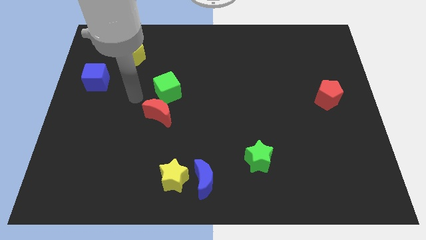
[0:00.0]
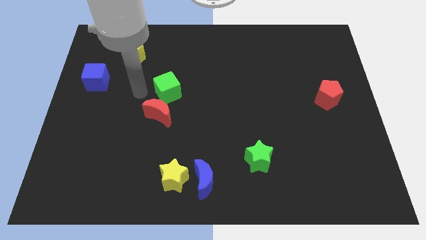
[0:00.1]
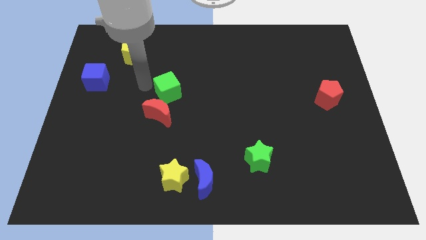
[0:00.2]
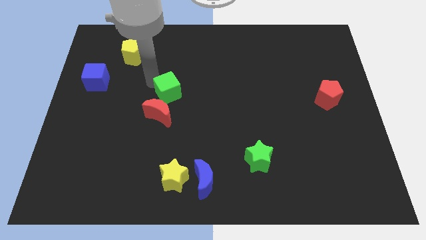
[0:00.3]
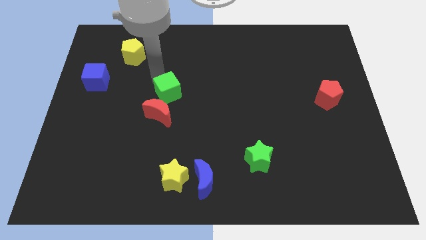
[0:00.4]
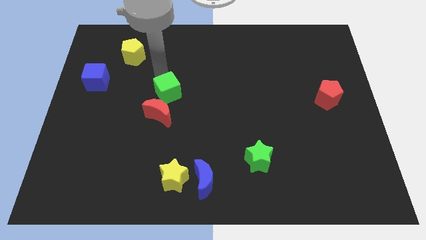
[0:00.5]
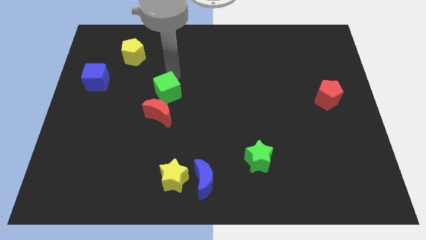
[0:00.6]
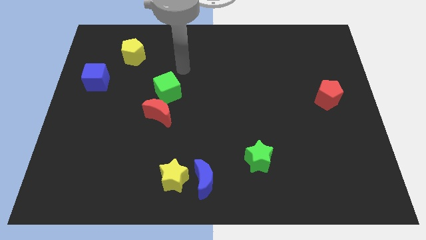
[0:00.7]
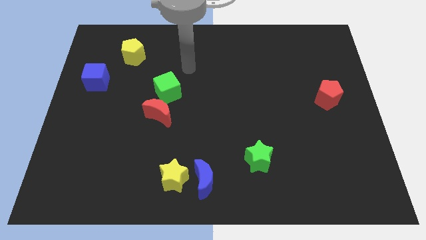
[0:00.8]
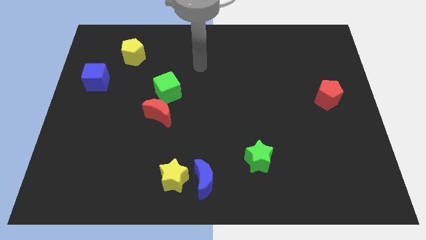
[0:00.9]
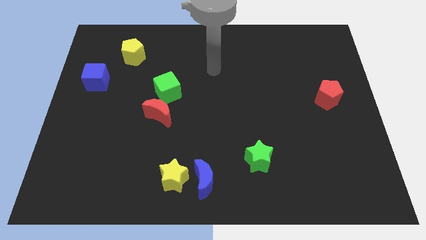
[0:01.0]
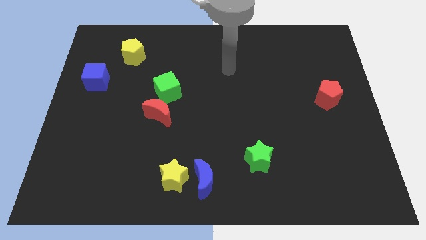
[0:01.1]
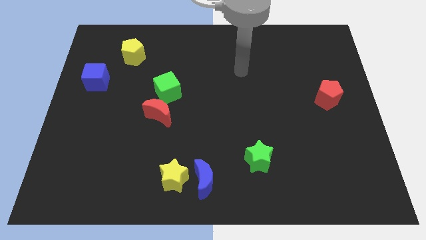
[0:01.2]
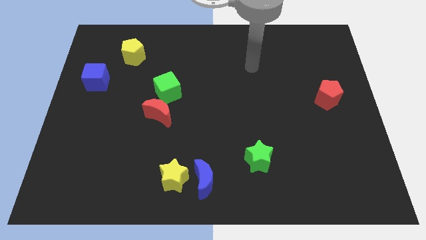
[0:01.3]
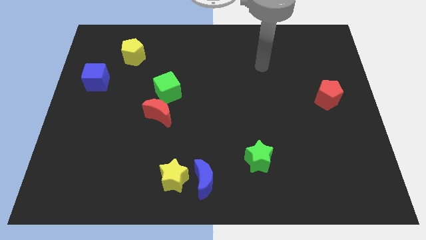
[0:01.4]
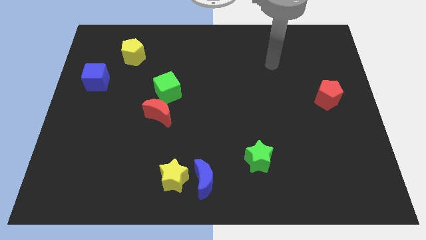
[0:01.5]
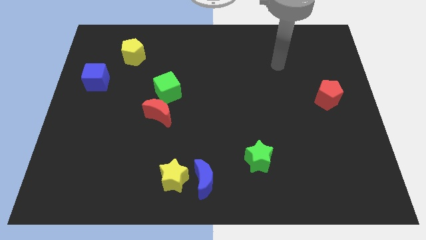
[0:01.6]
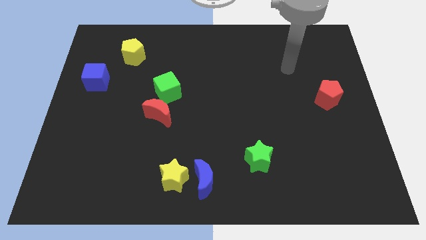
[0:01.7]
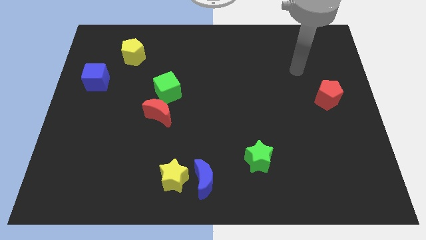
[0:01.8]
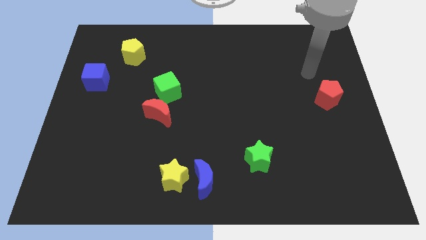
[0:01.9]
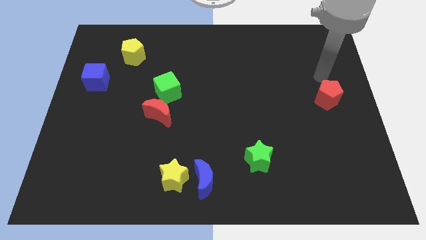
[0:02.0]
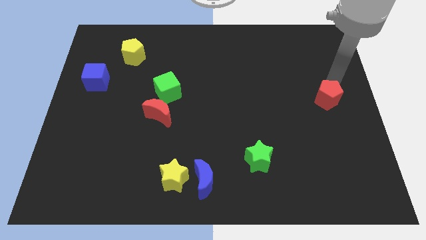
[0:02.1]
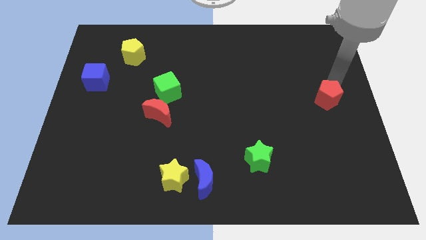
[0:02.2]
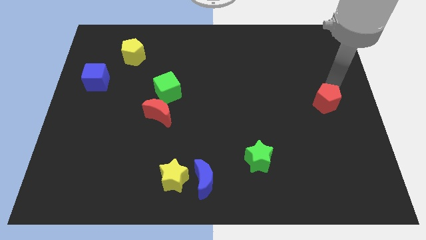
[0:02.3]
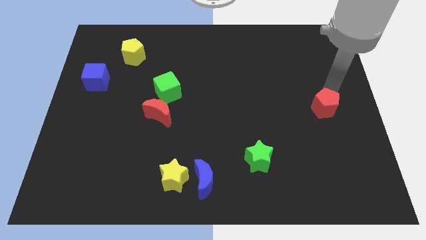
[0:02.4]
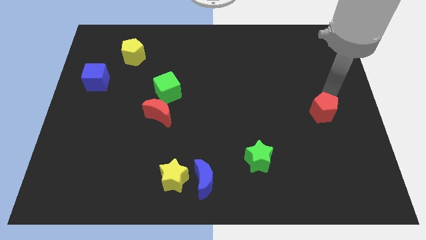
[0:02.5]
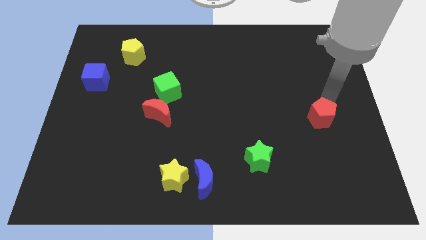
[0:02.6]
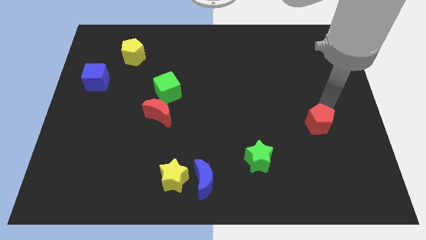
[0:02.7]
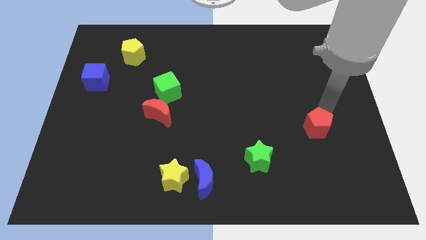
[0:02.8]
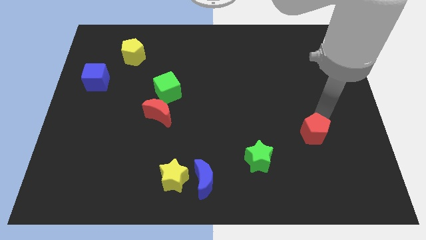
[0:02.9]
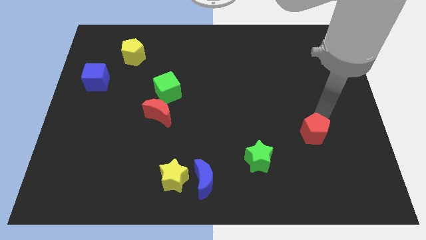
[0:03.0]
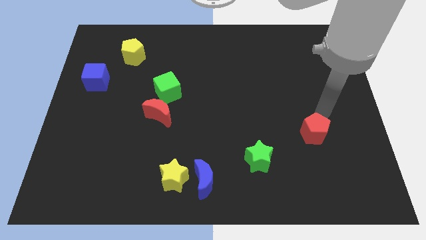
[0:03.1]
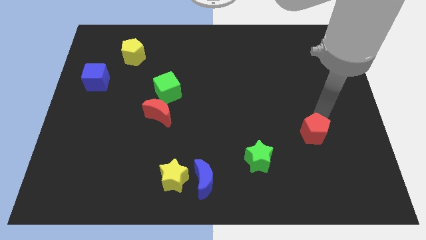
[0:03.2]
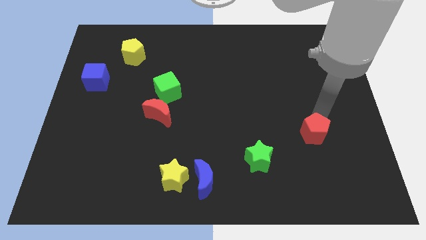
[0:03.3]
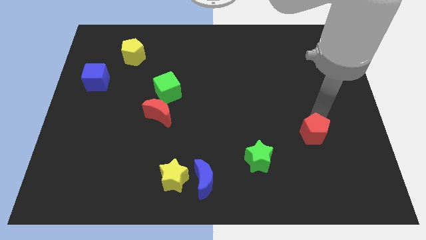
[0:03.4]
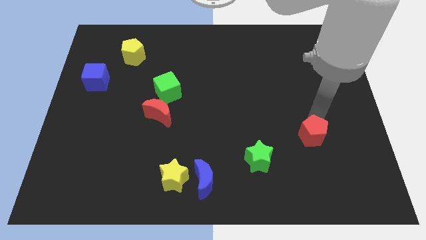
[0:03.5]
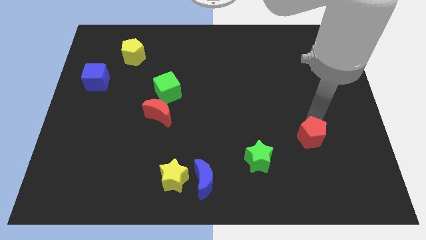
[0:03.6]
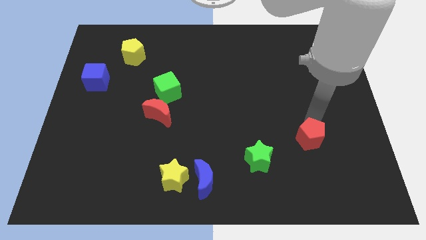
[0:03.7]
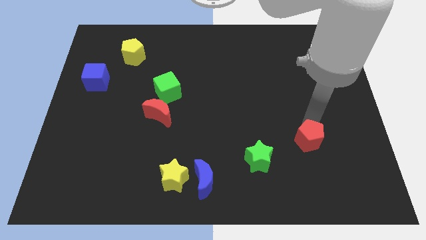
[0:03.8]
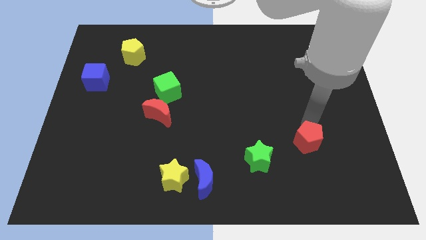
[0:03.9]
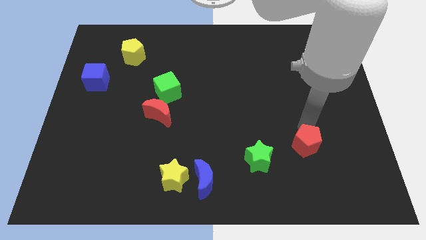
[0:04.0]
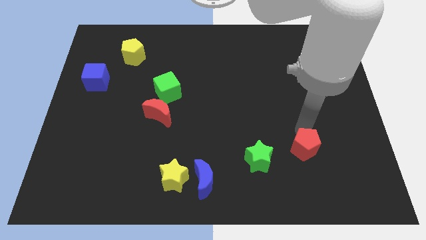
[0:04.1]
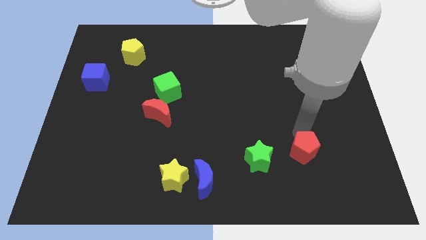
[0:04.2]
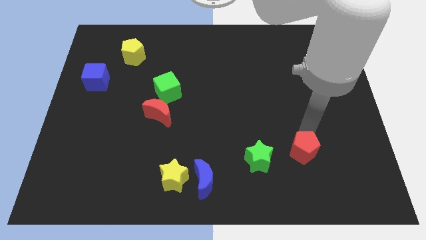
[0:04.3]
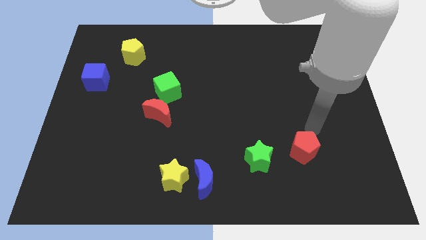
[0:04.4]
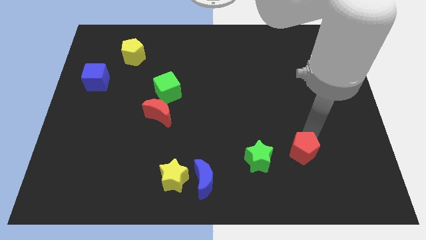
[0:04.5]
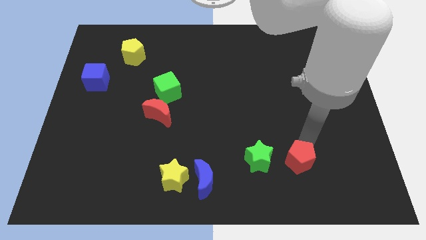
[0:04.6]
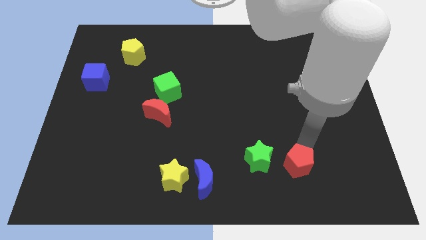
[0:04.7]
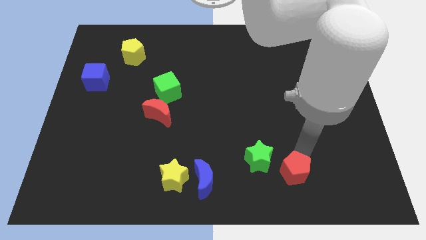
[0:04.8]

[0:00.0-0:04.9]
put the red pentagon to the bottom right of the green star

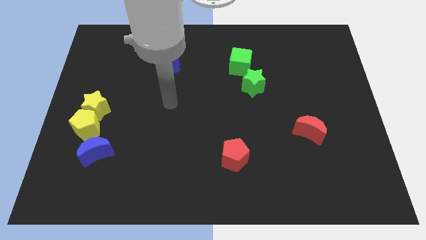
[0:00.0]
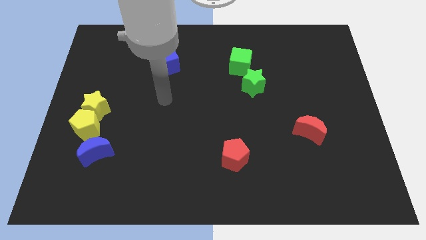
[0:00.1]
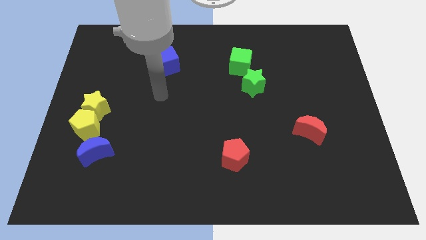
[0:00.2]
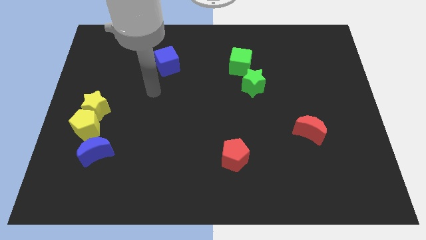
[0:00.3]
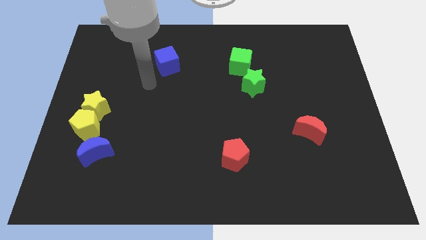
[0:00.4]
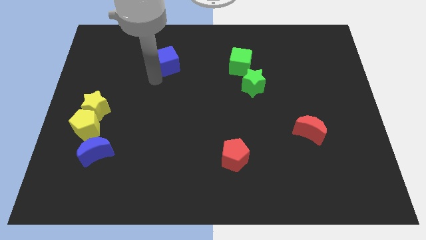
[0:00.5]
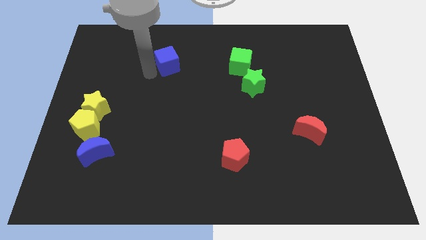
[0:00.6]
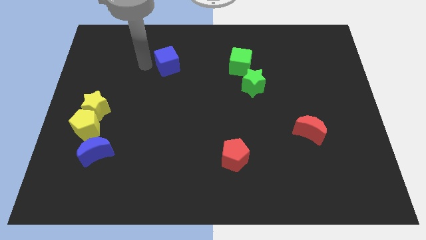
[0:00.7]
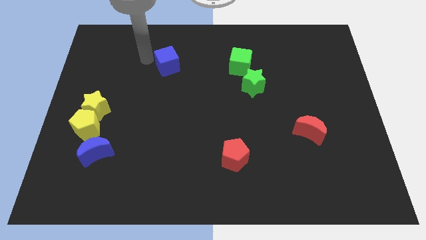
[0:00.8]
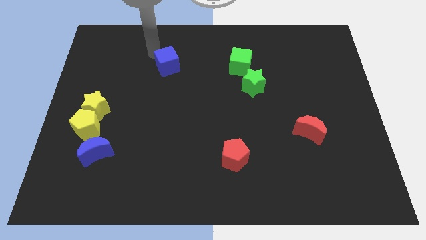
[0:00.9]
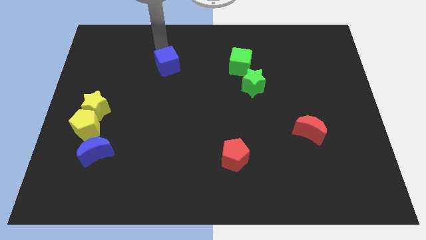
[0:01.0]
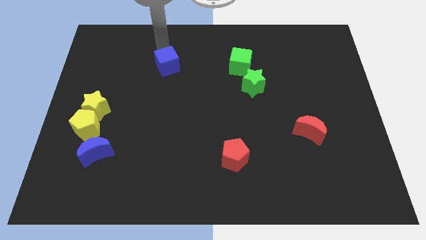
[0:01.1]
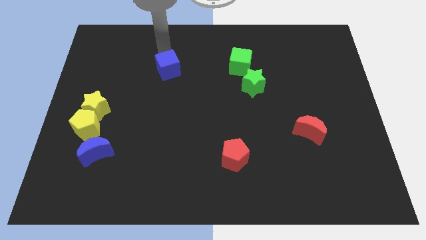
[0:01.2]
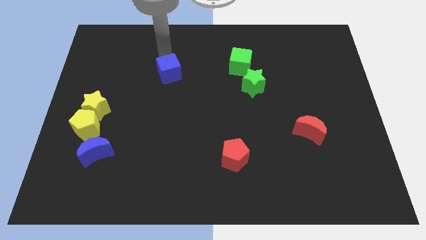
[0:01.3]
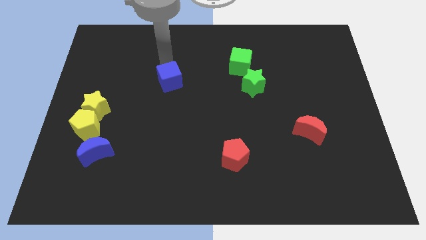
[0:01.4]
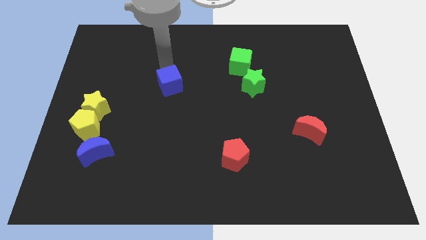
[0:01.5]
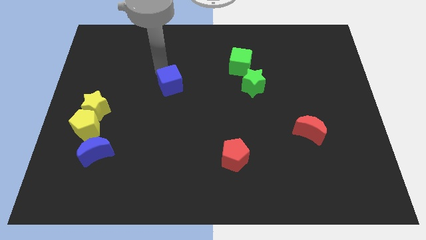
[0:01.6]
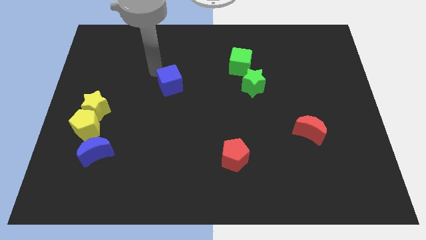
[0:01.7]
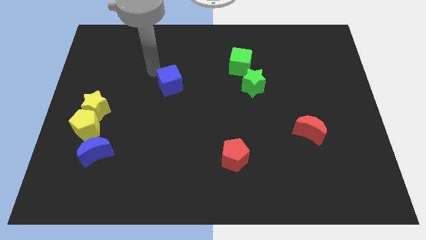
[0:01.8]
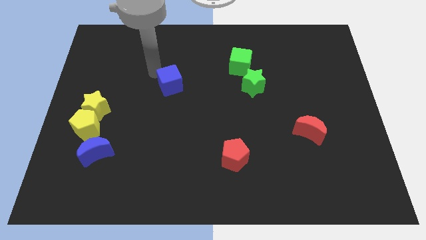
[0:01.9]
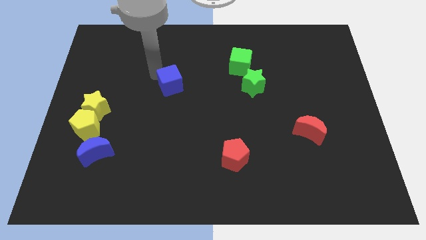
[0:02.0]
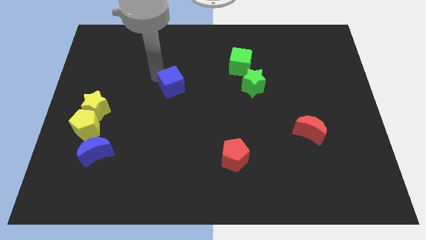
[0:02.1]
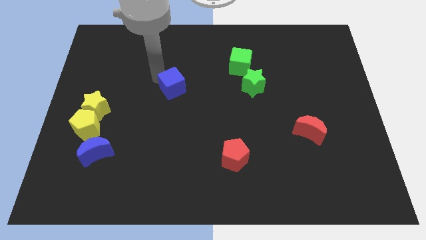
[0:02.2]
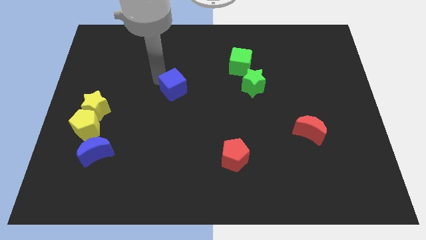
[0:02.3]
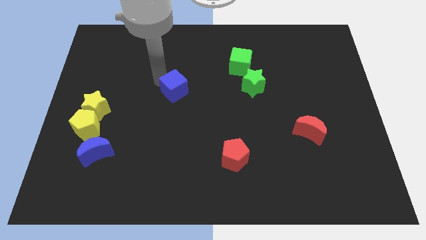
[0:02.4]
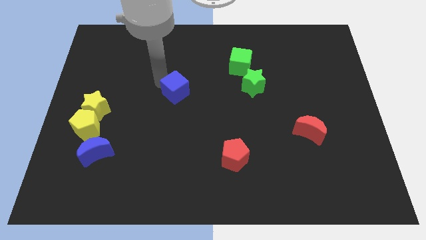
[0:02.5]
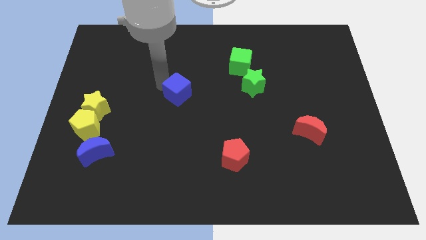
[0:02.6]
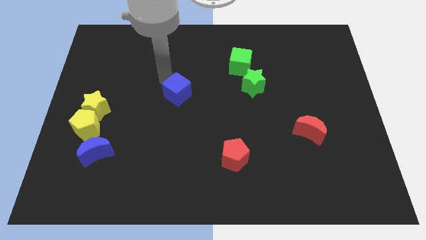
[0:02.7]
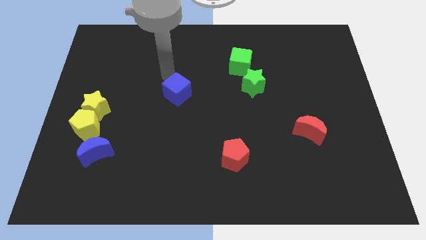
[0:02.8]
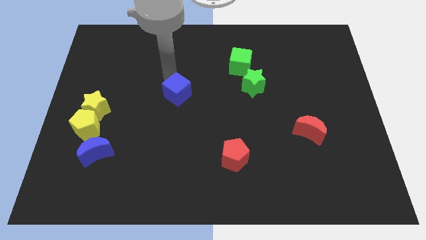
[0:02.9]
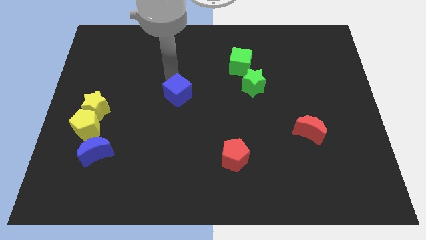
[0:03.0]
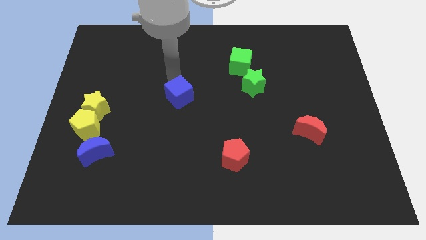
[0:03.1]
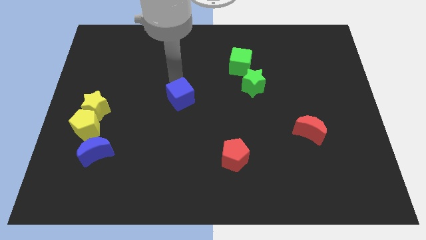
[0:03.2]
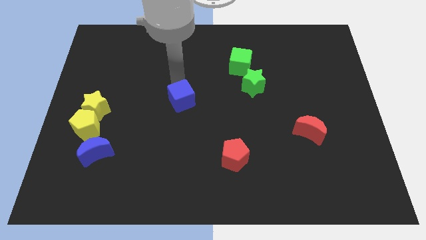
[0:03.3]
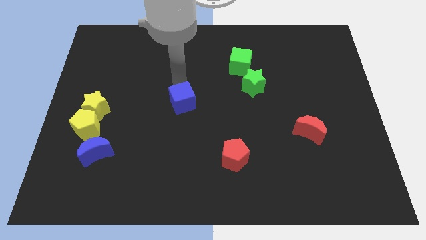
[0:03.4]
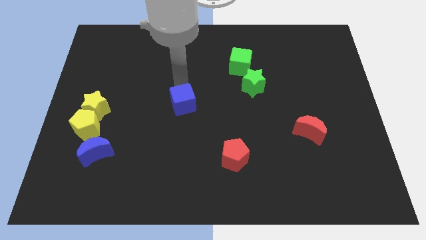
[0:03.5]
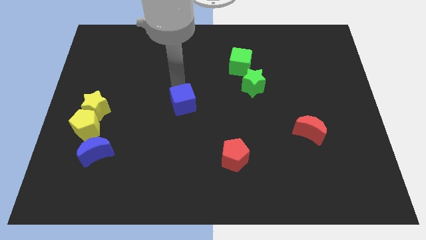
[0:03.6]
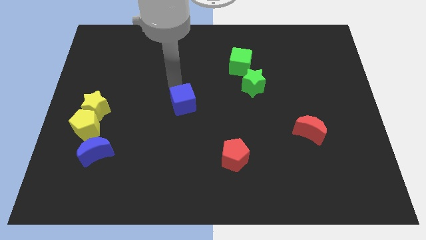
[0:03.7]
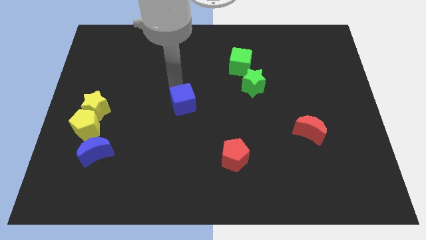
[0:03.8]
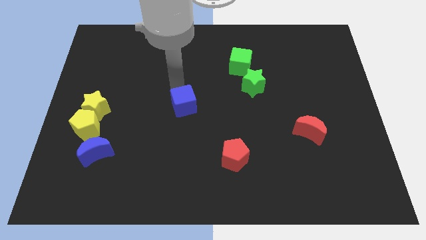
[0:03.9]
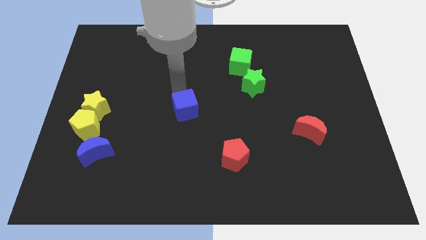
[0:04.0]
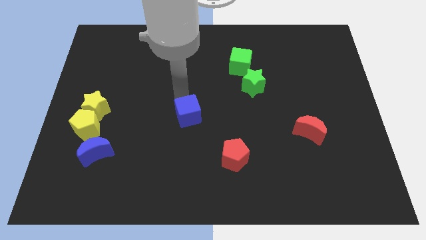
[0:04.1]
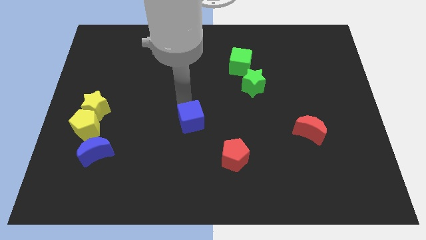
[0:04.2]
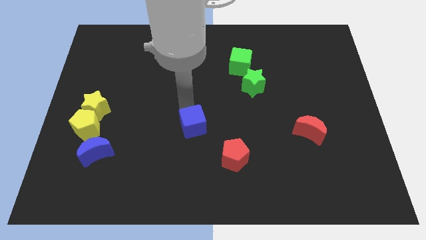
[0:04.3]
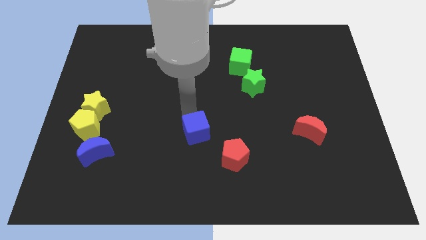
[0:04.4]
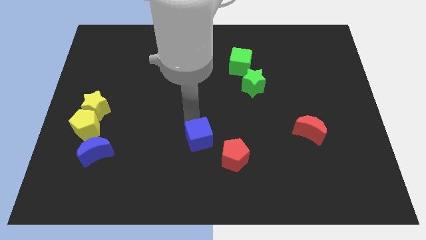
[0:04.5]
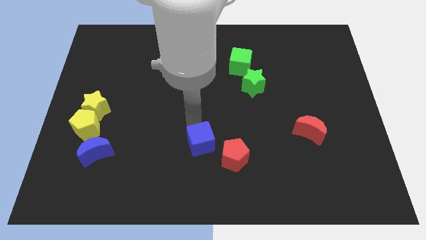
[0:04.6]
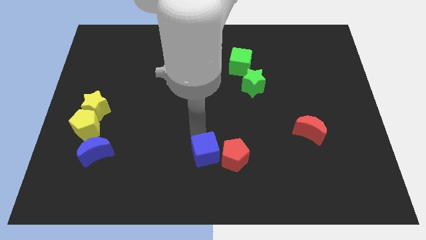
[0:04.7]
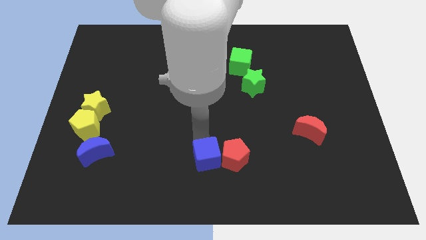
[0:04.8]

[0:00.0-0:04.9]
slide the blue cube to the bottom left side of the red pentagon
